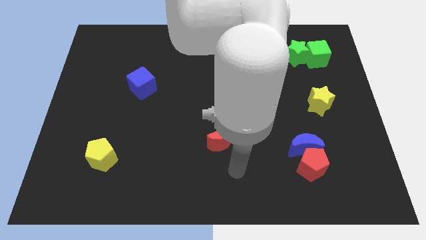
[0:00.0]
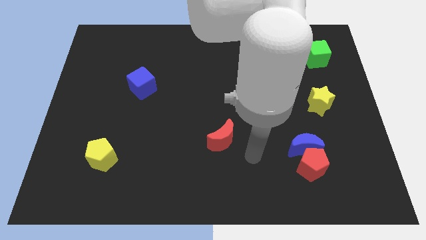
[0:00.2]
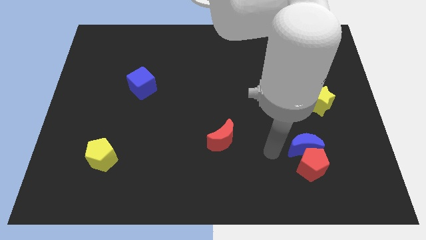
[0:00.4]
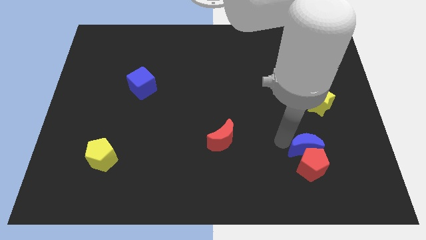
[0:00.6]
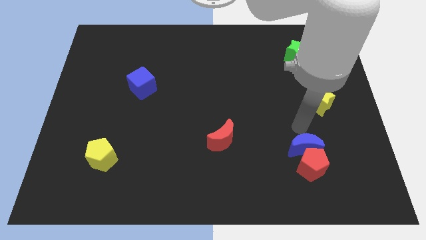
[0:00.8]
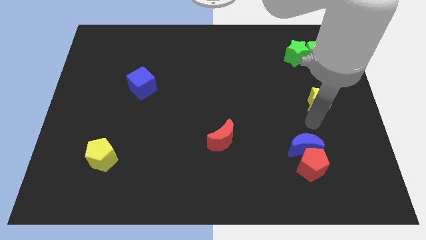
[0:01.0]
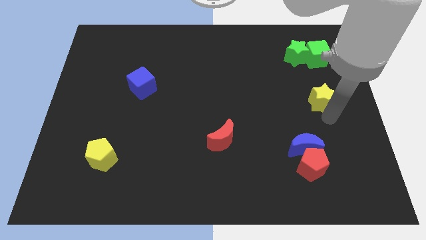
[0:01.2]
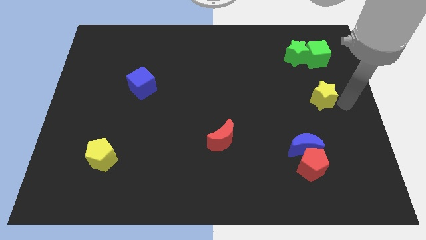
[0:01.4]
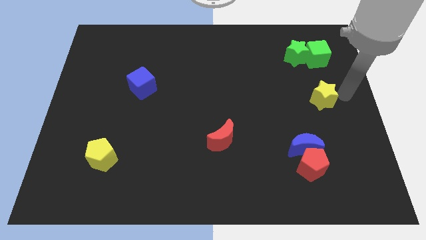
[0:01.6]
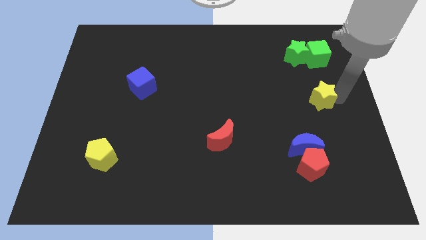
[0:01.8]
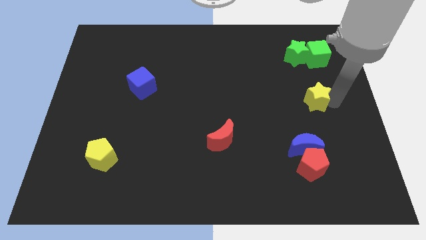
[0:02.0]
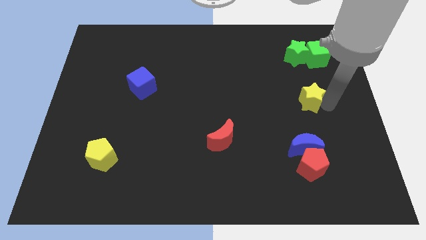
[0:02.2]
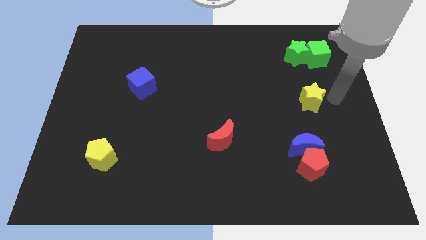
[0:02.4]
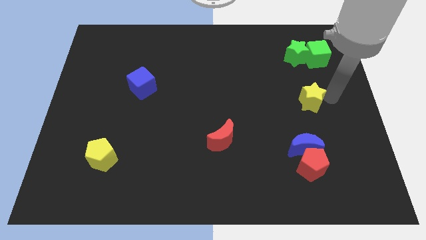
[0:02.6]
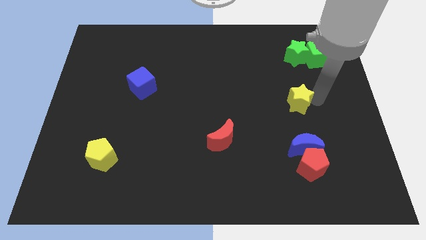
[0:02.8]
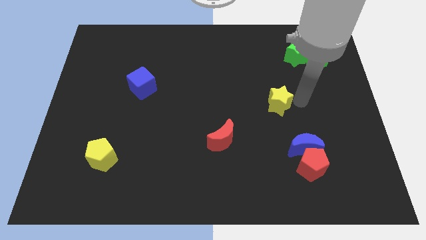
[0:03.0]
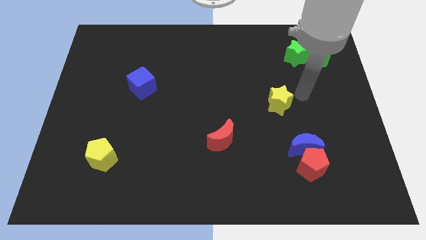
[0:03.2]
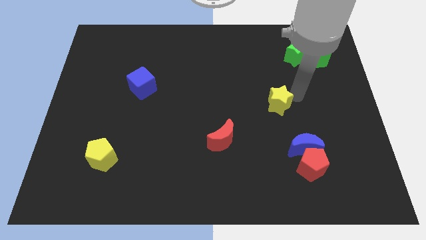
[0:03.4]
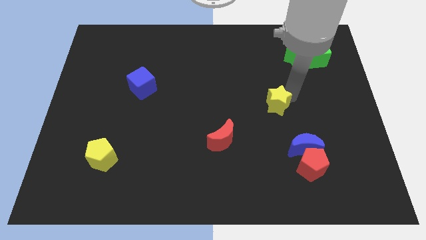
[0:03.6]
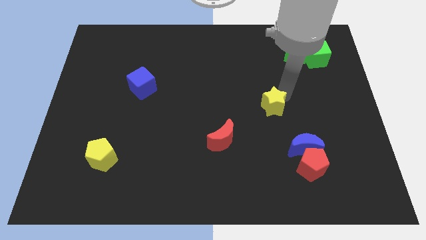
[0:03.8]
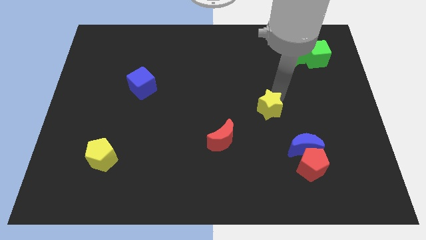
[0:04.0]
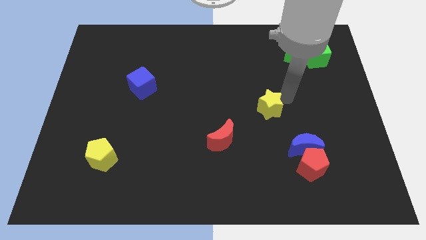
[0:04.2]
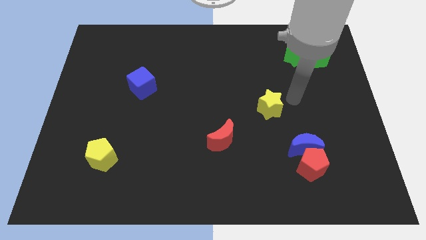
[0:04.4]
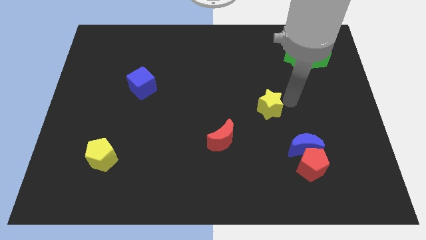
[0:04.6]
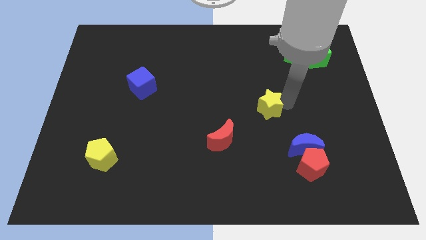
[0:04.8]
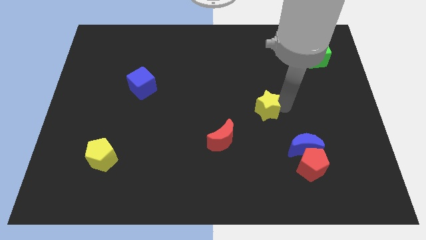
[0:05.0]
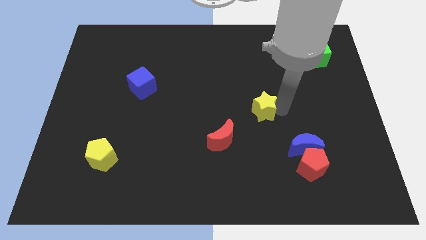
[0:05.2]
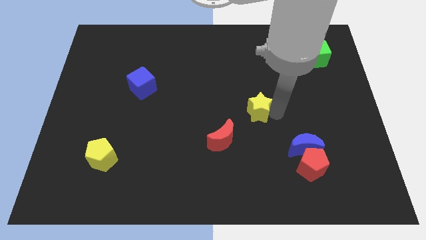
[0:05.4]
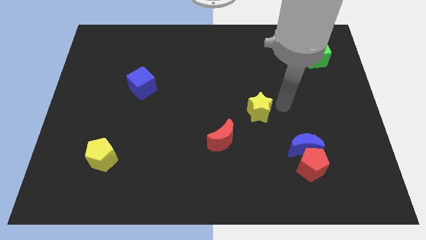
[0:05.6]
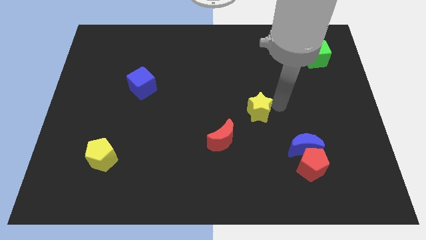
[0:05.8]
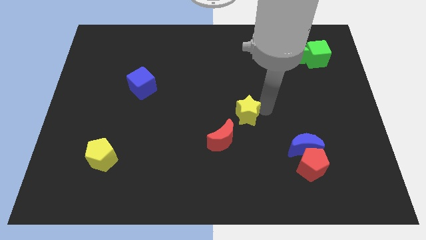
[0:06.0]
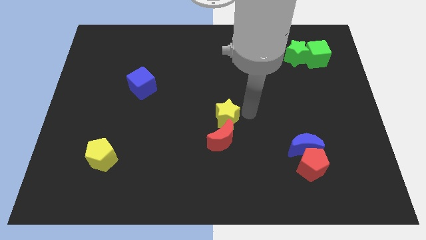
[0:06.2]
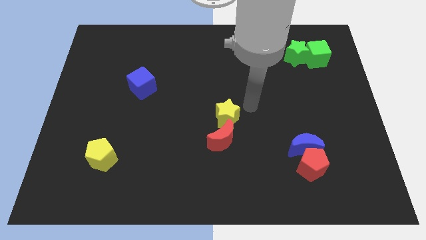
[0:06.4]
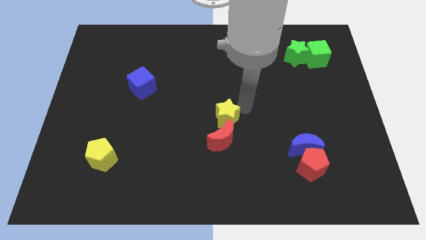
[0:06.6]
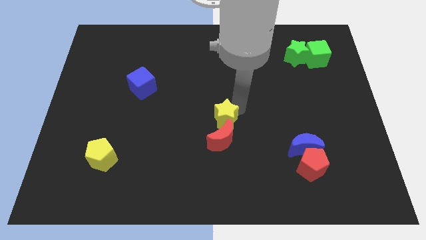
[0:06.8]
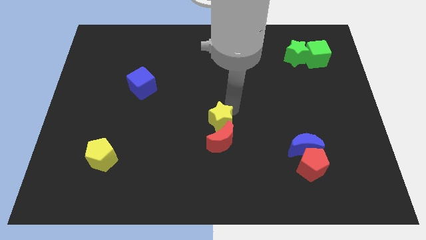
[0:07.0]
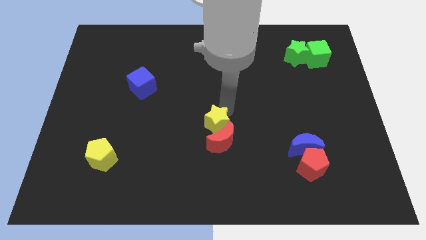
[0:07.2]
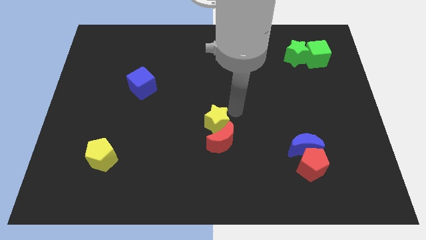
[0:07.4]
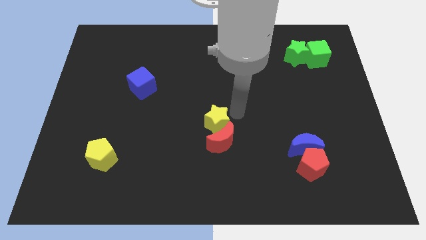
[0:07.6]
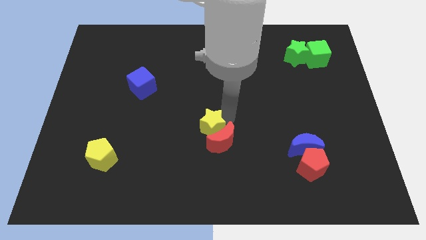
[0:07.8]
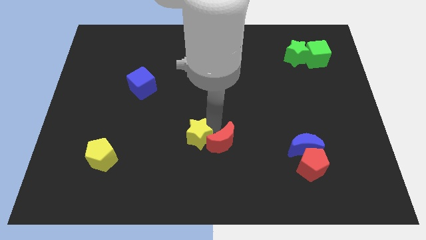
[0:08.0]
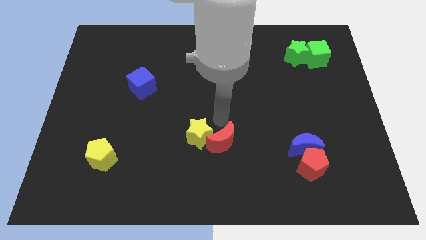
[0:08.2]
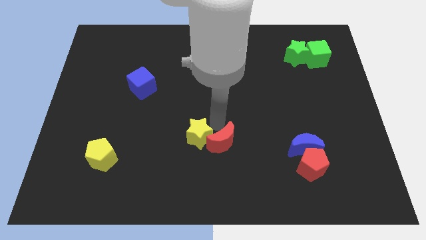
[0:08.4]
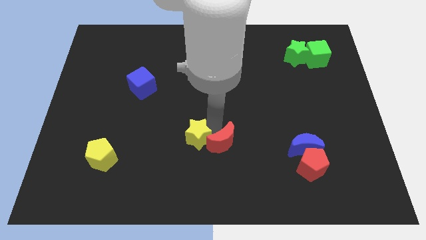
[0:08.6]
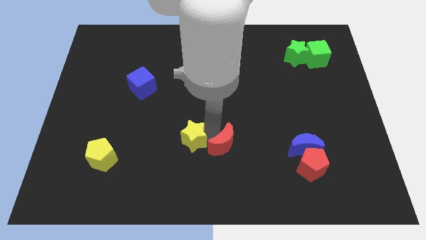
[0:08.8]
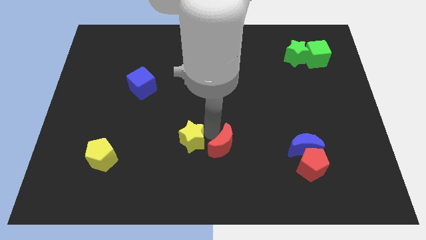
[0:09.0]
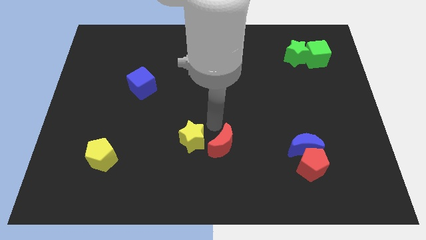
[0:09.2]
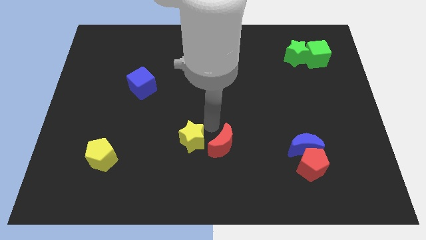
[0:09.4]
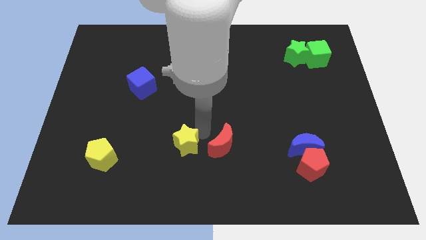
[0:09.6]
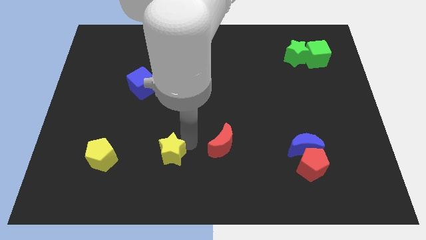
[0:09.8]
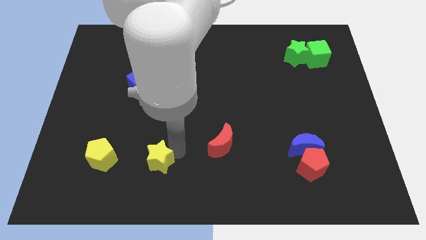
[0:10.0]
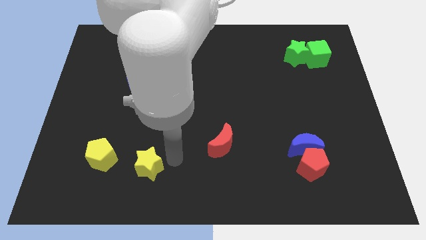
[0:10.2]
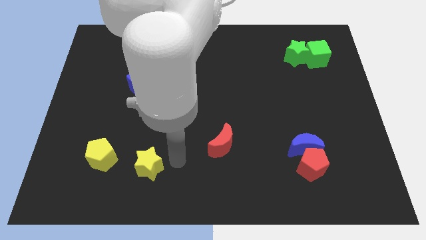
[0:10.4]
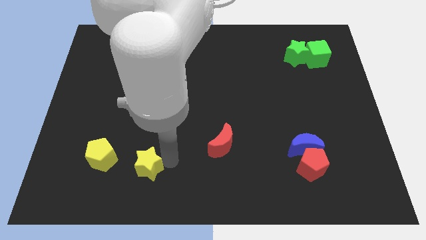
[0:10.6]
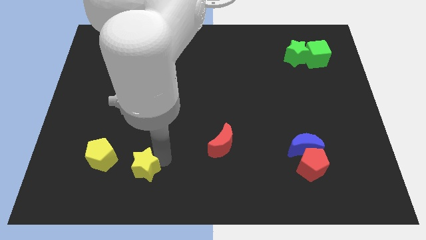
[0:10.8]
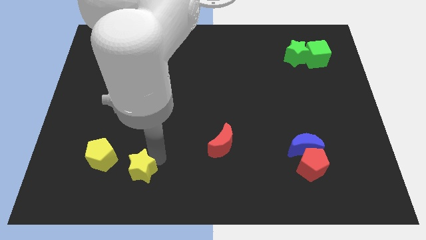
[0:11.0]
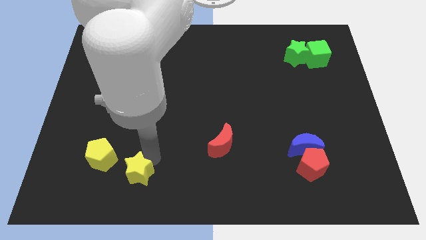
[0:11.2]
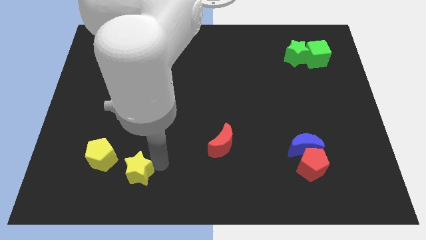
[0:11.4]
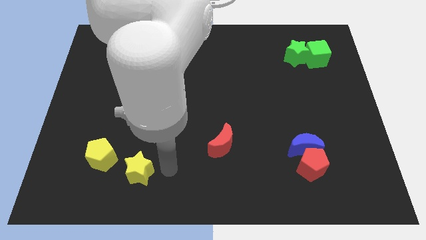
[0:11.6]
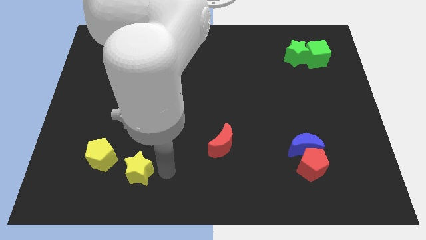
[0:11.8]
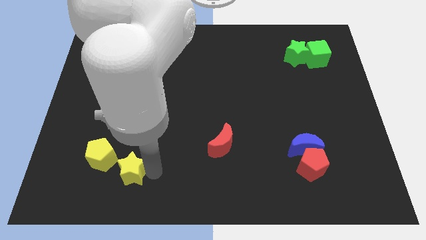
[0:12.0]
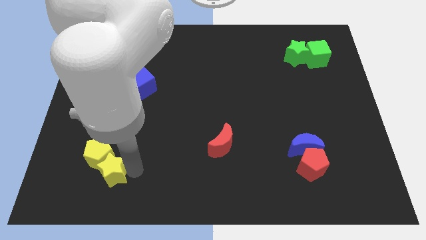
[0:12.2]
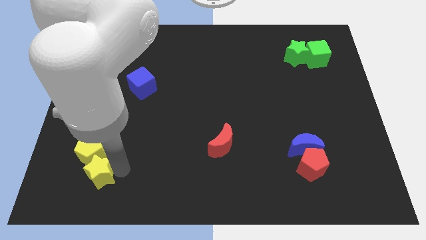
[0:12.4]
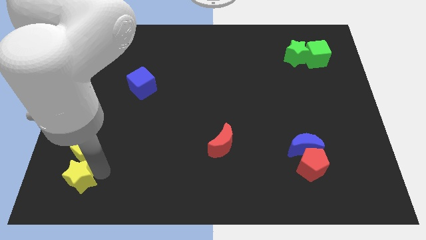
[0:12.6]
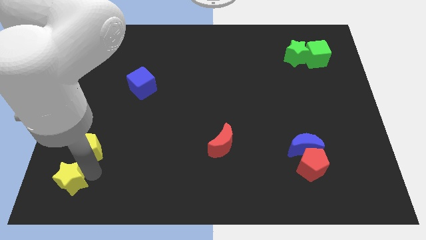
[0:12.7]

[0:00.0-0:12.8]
push the yellow star to the bottom left corner

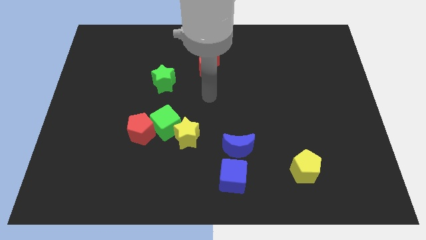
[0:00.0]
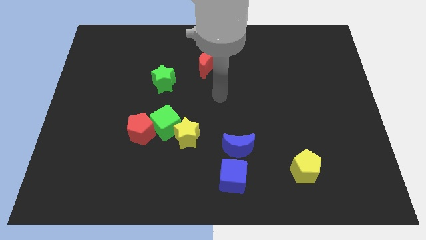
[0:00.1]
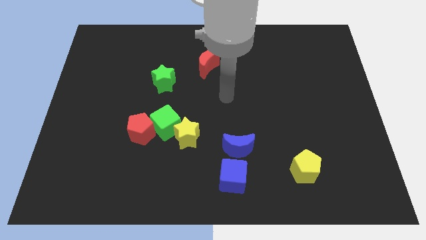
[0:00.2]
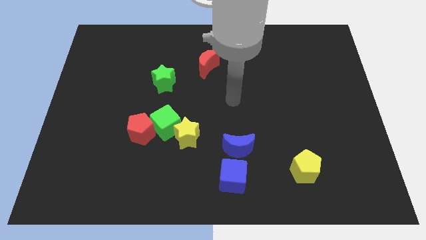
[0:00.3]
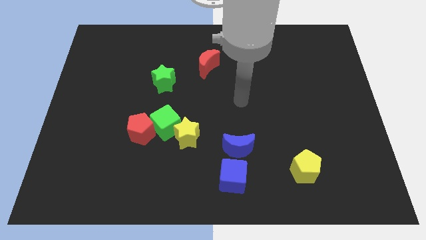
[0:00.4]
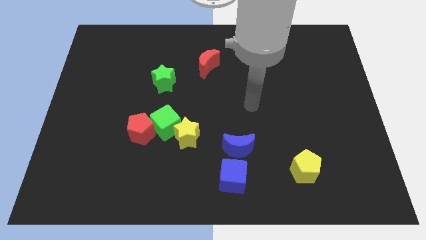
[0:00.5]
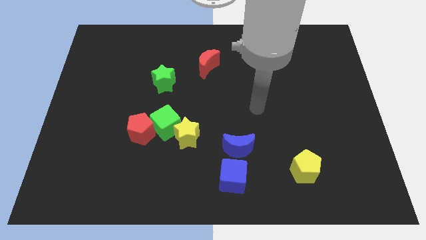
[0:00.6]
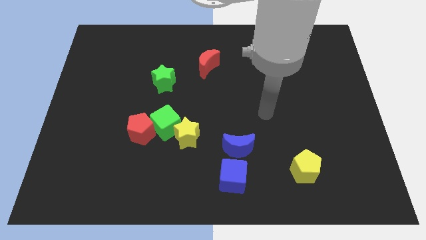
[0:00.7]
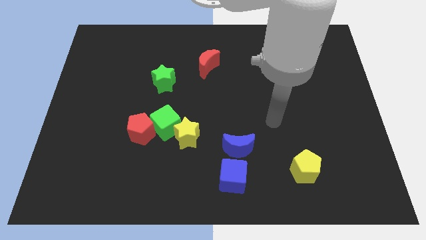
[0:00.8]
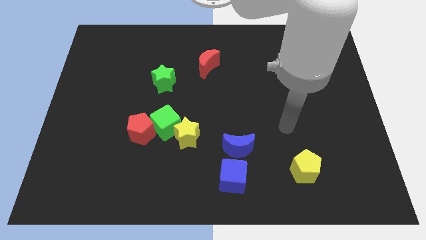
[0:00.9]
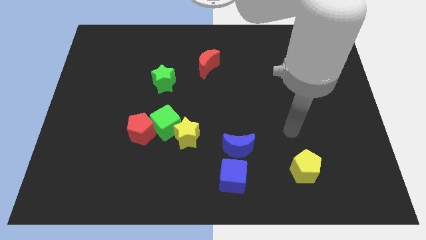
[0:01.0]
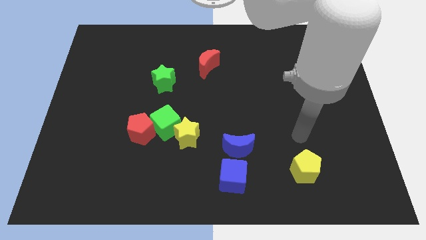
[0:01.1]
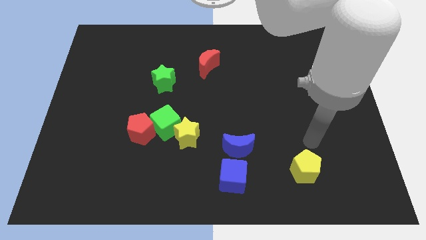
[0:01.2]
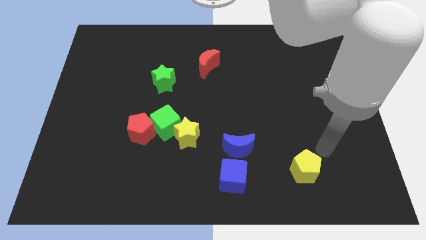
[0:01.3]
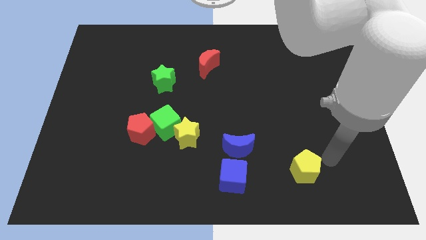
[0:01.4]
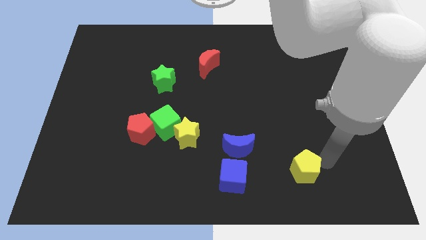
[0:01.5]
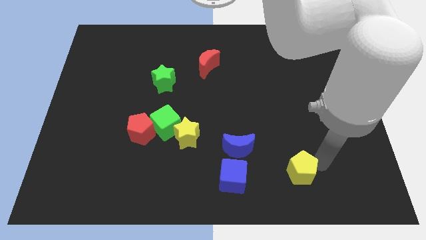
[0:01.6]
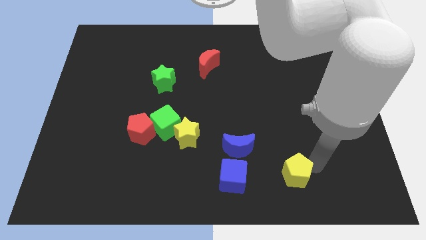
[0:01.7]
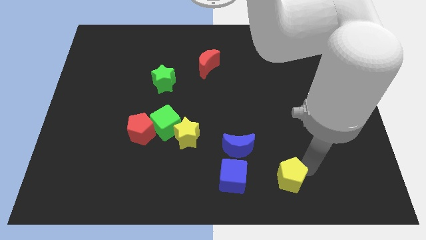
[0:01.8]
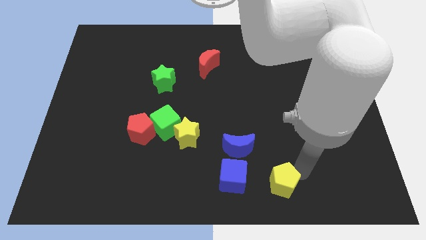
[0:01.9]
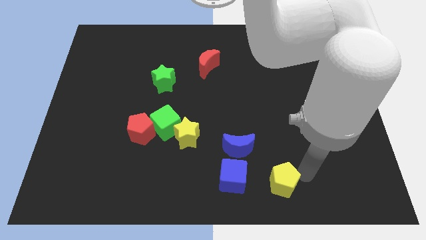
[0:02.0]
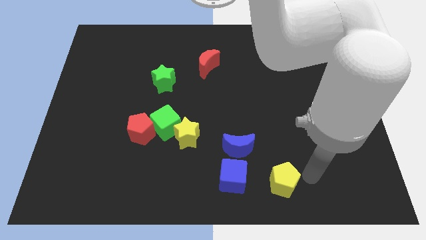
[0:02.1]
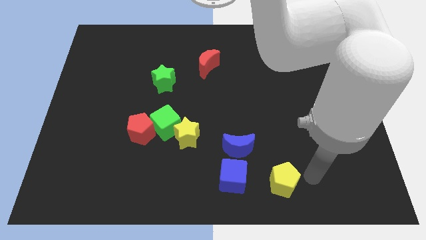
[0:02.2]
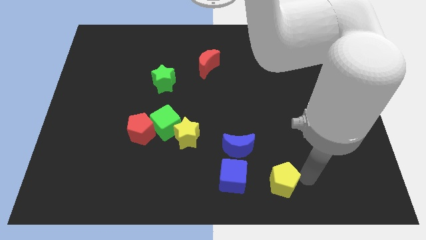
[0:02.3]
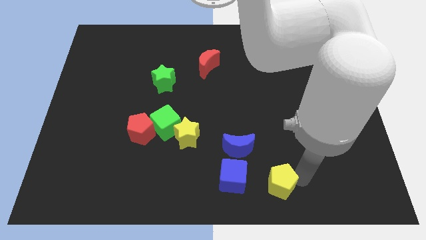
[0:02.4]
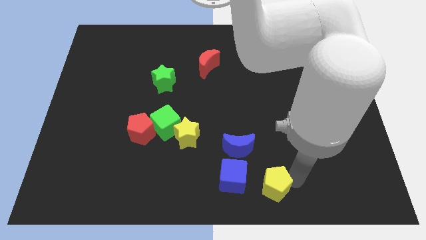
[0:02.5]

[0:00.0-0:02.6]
move the yellow pentagon to the bottom
